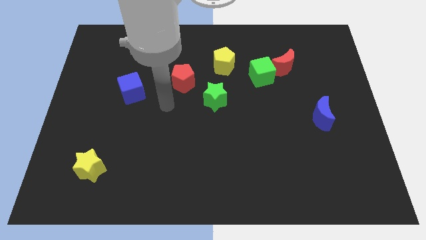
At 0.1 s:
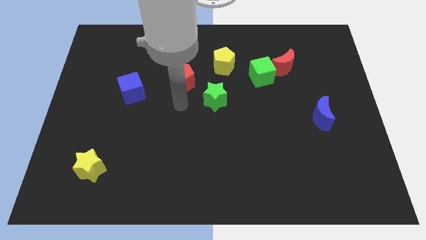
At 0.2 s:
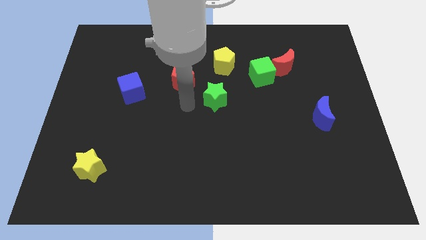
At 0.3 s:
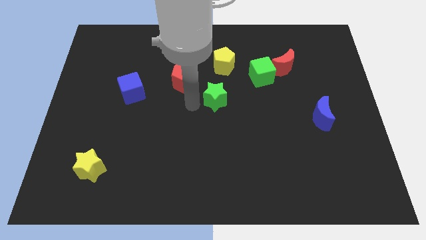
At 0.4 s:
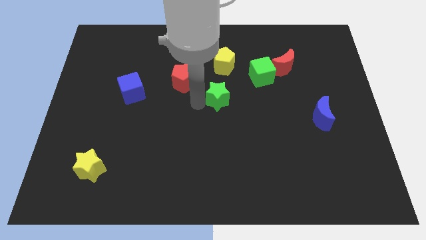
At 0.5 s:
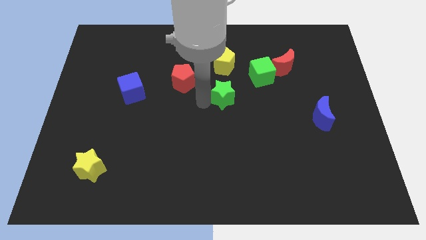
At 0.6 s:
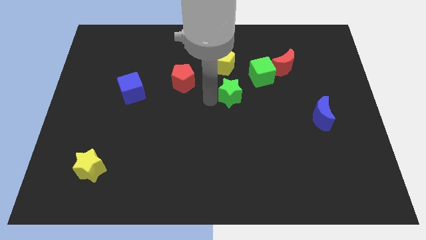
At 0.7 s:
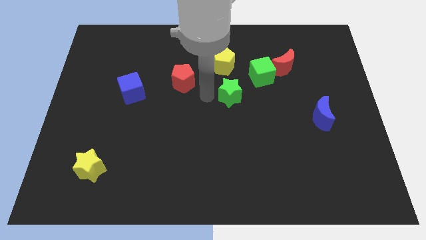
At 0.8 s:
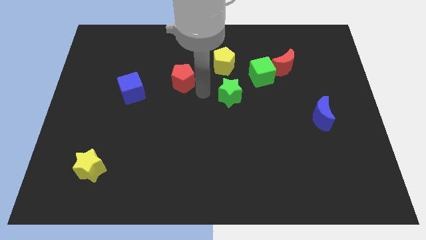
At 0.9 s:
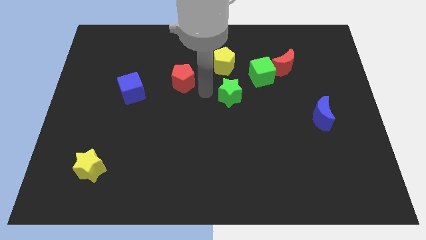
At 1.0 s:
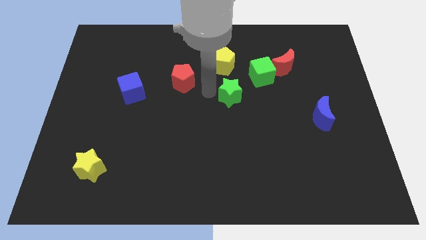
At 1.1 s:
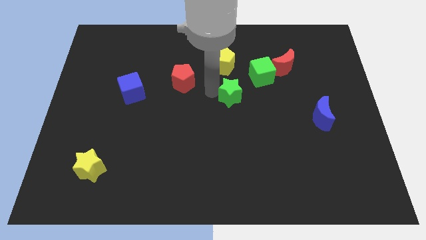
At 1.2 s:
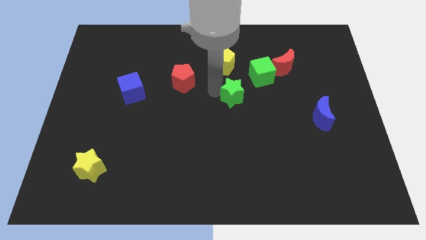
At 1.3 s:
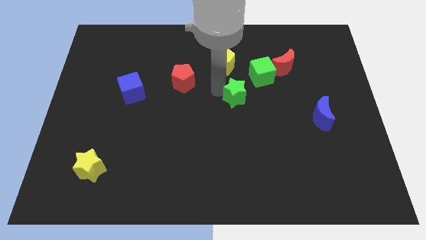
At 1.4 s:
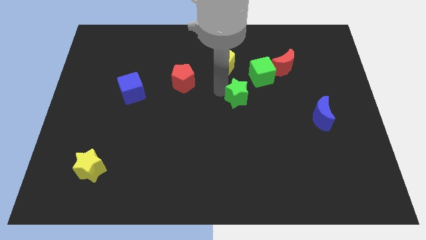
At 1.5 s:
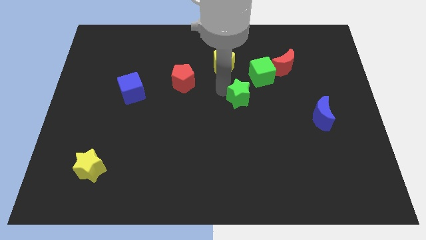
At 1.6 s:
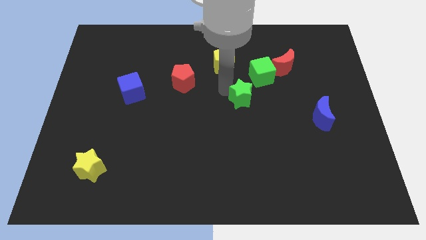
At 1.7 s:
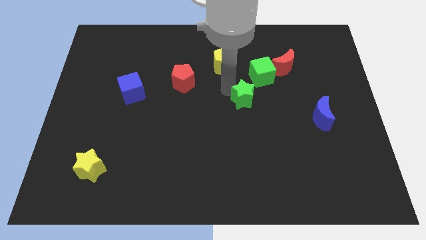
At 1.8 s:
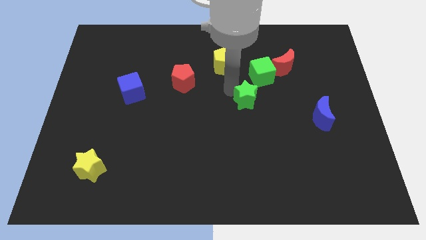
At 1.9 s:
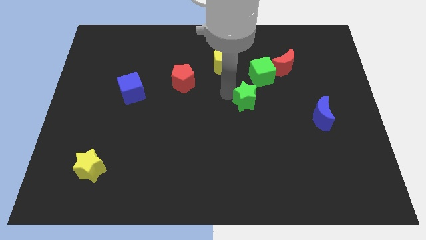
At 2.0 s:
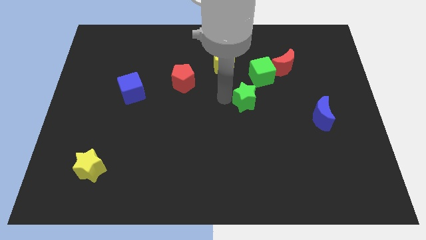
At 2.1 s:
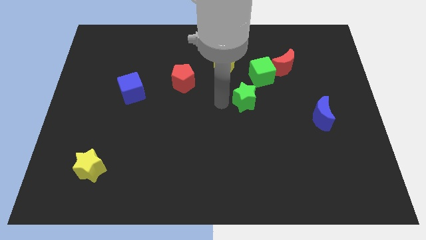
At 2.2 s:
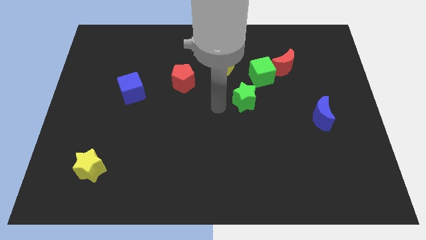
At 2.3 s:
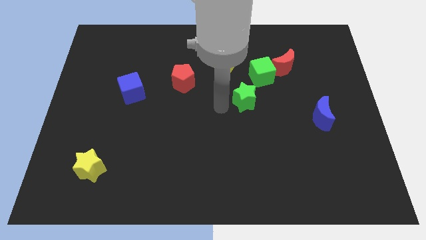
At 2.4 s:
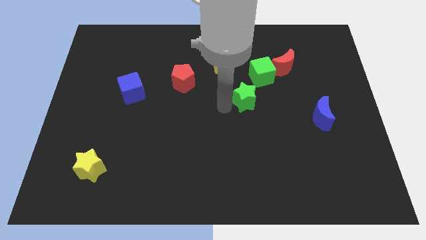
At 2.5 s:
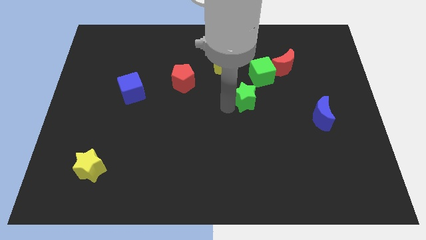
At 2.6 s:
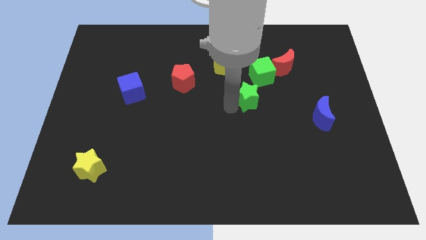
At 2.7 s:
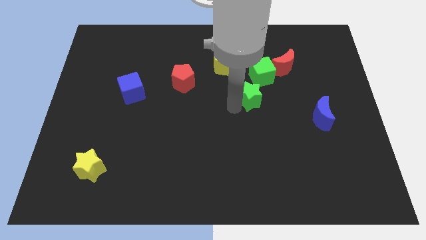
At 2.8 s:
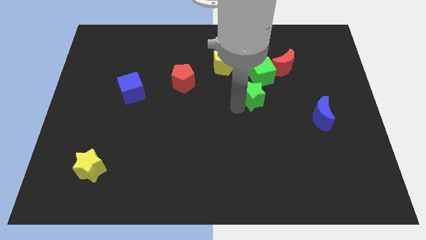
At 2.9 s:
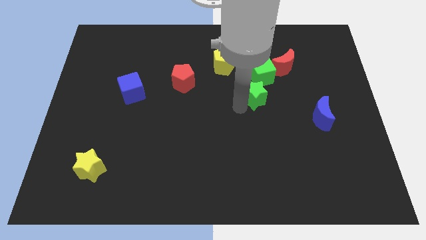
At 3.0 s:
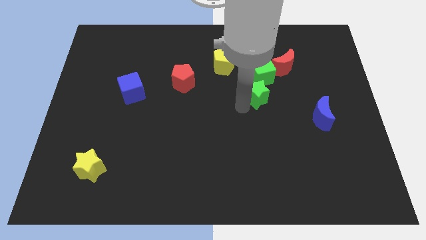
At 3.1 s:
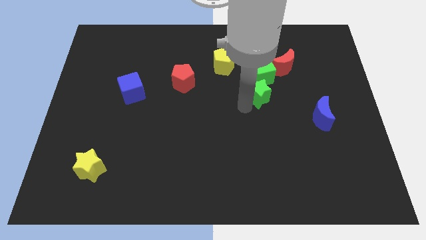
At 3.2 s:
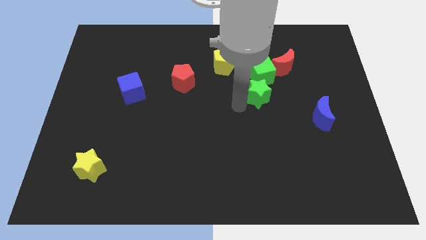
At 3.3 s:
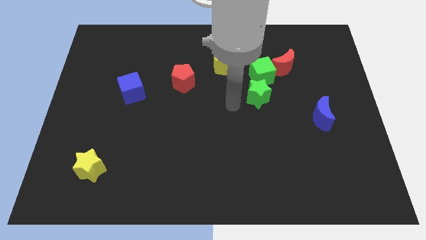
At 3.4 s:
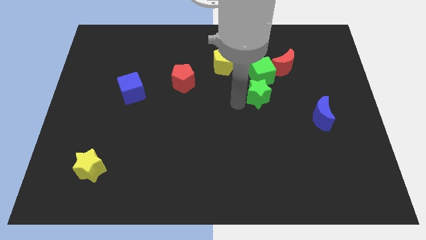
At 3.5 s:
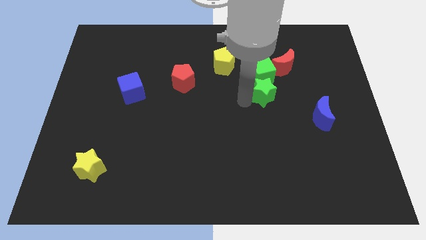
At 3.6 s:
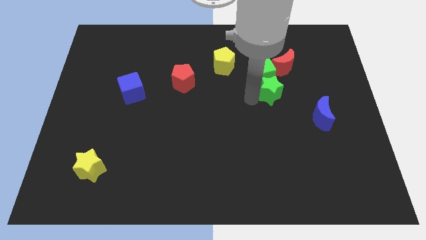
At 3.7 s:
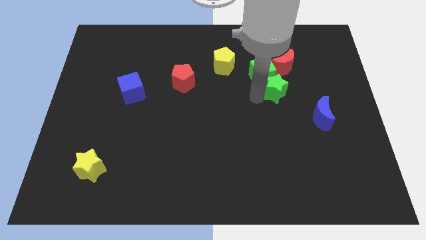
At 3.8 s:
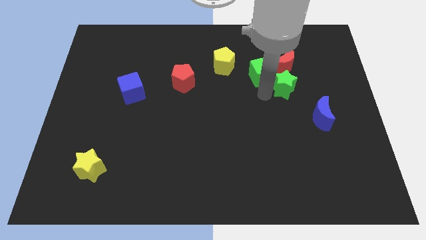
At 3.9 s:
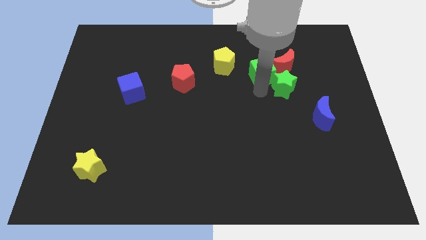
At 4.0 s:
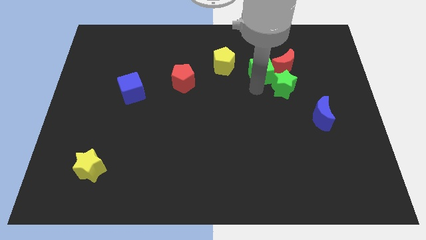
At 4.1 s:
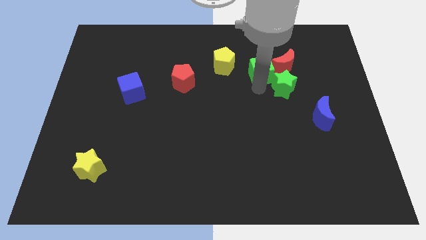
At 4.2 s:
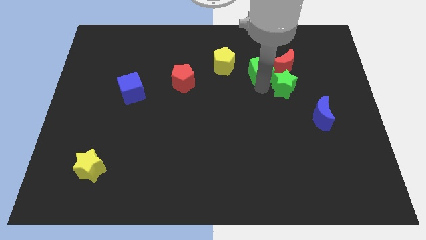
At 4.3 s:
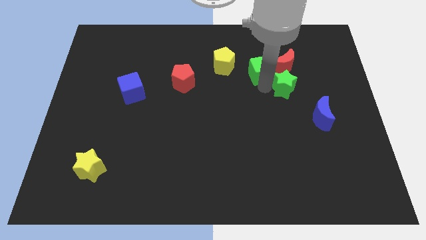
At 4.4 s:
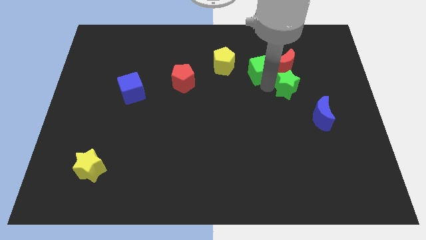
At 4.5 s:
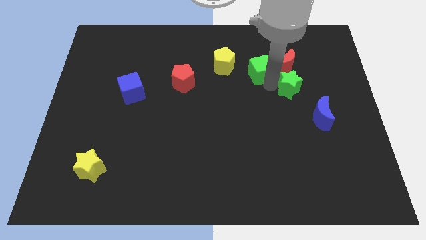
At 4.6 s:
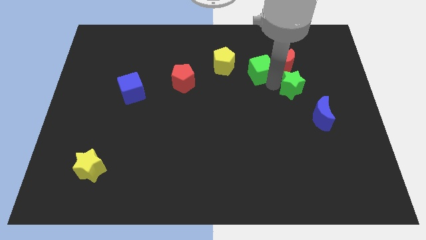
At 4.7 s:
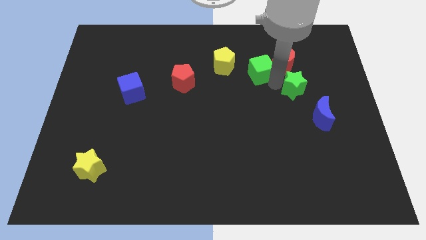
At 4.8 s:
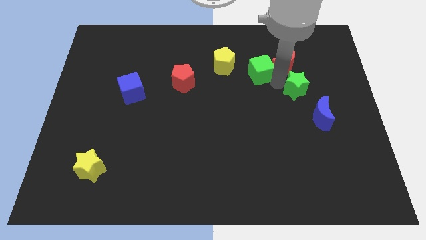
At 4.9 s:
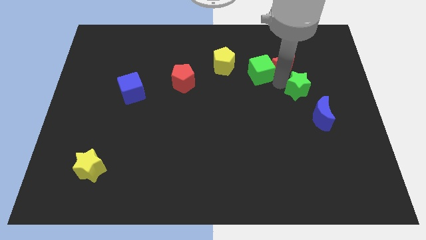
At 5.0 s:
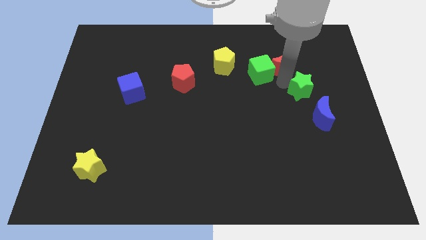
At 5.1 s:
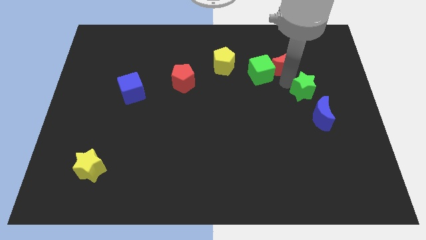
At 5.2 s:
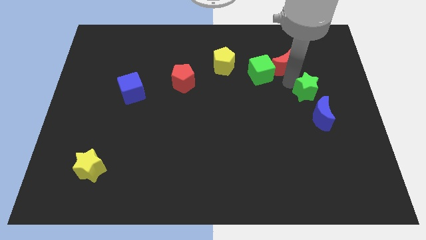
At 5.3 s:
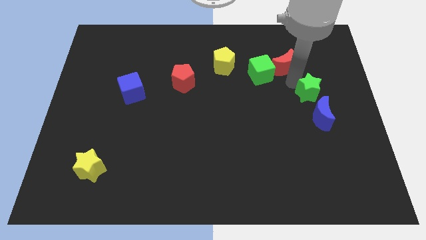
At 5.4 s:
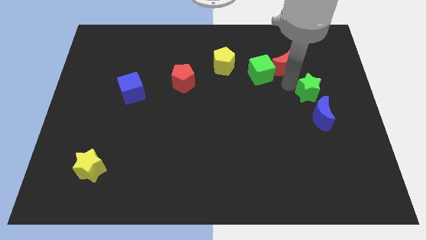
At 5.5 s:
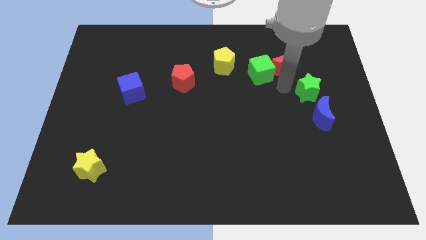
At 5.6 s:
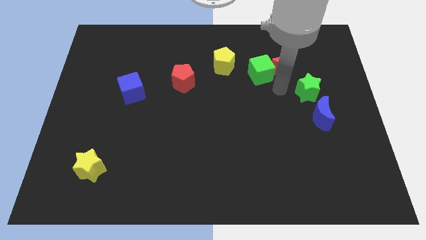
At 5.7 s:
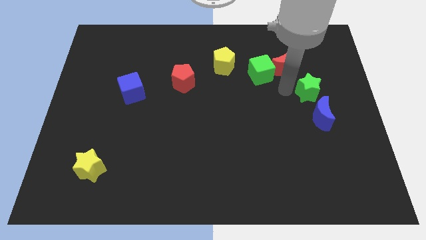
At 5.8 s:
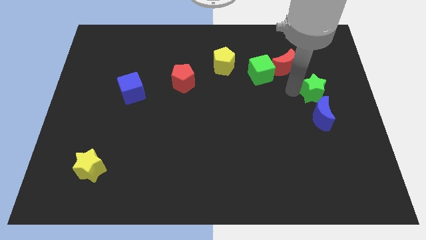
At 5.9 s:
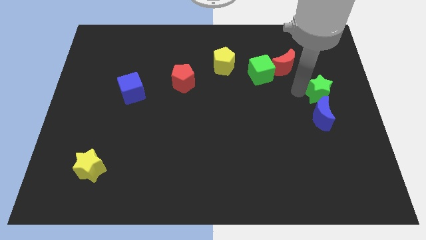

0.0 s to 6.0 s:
put the green star to the right side of the board
